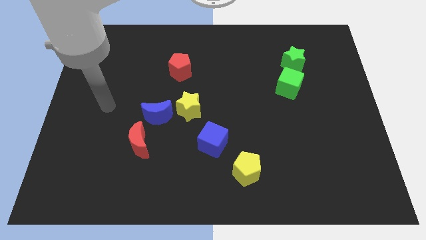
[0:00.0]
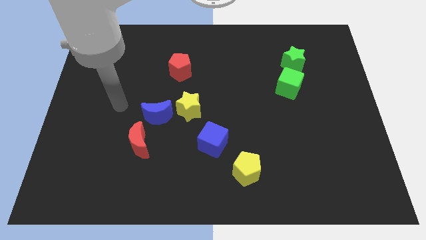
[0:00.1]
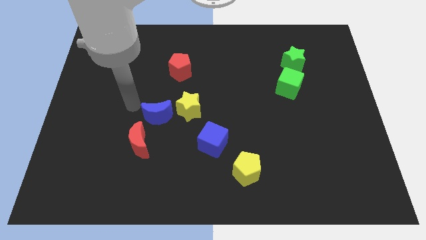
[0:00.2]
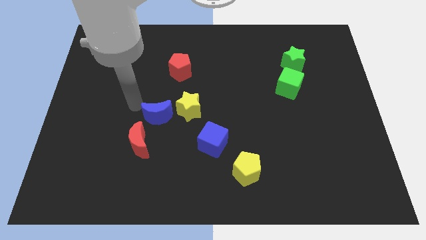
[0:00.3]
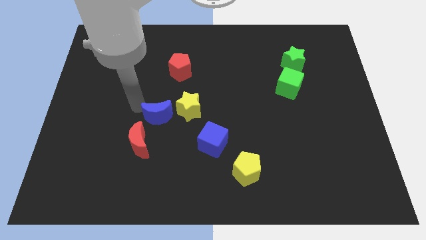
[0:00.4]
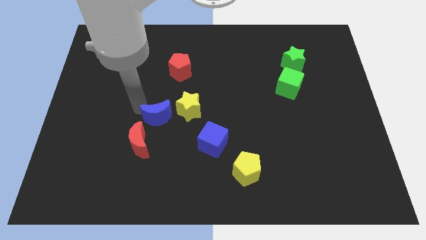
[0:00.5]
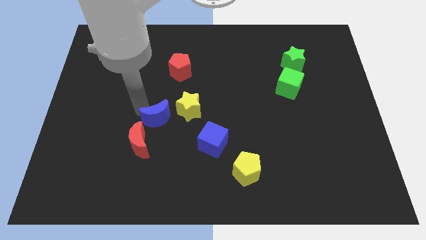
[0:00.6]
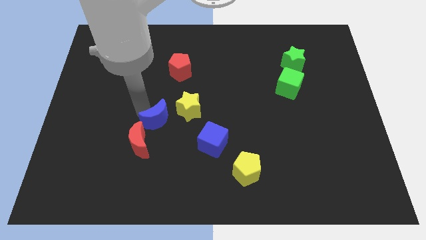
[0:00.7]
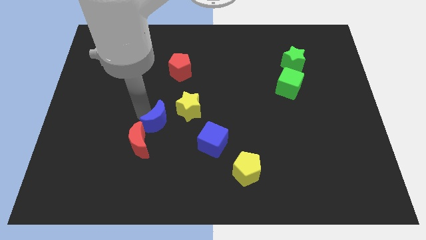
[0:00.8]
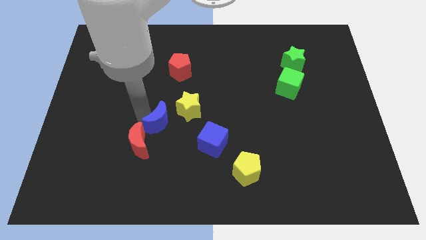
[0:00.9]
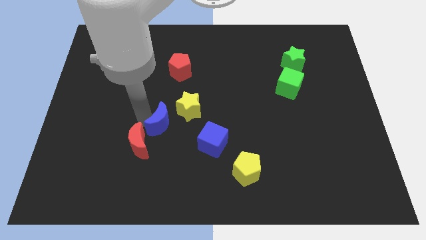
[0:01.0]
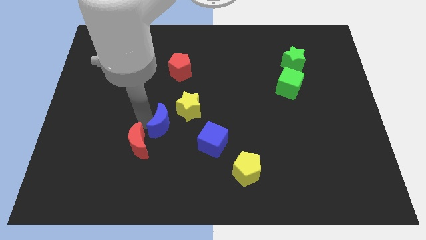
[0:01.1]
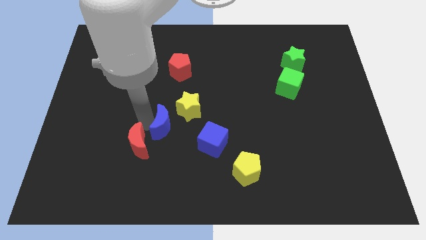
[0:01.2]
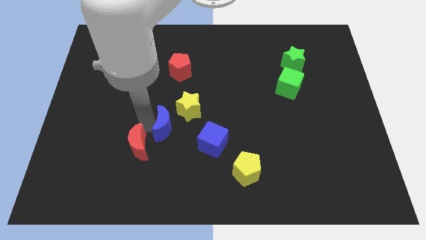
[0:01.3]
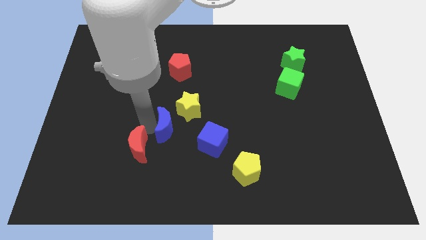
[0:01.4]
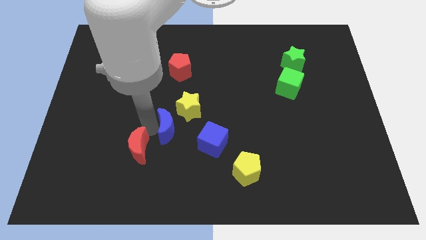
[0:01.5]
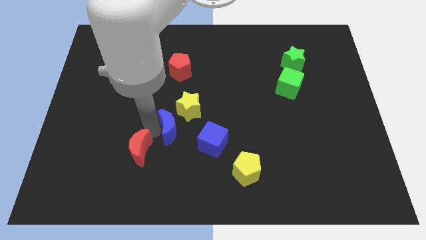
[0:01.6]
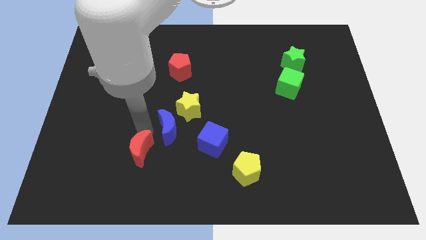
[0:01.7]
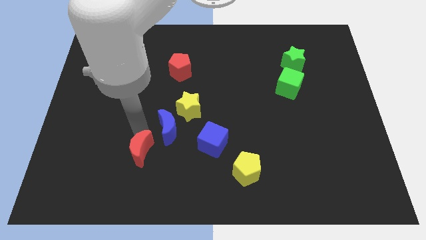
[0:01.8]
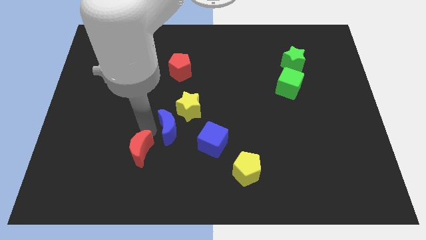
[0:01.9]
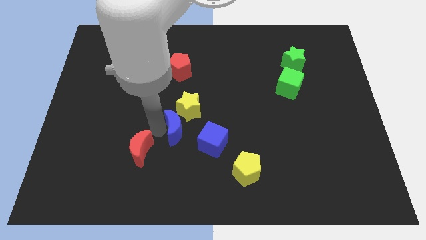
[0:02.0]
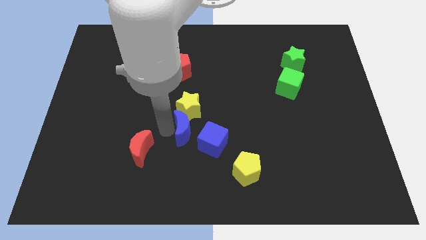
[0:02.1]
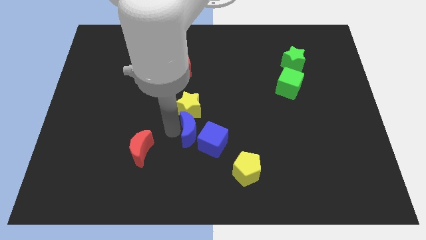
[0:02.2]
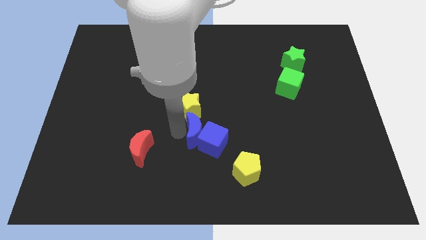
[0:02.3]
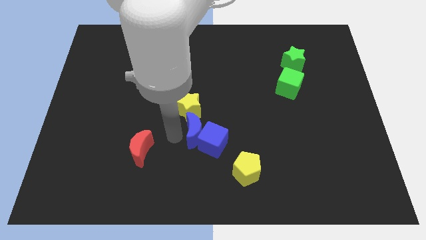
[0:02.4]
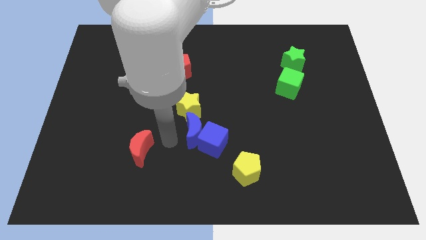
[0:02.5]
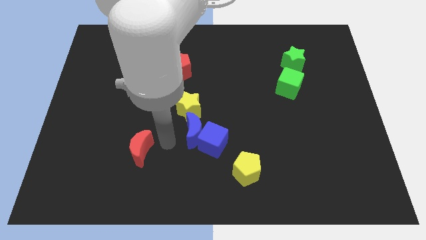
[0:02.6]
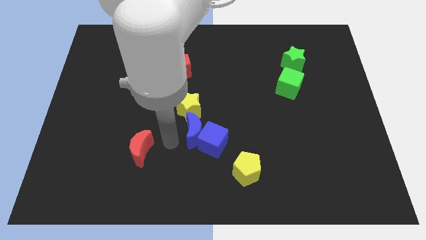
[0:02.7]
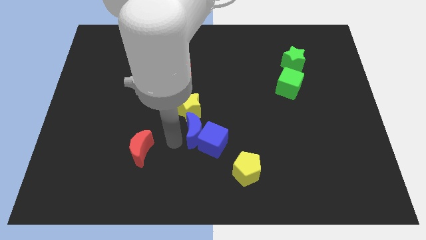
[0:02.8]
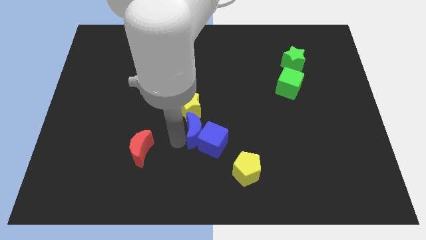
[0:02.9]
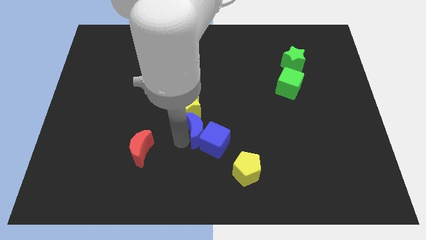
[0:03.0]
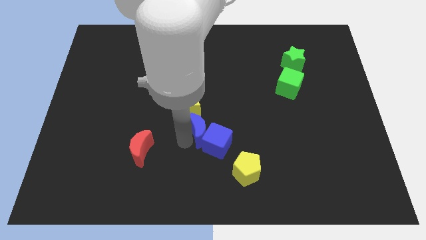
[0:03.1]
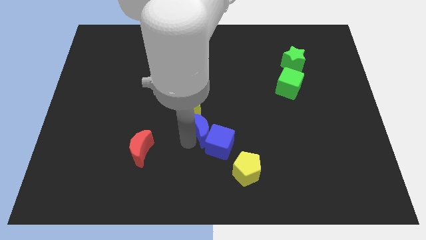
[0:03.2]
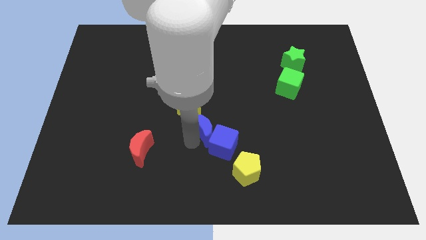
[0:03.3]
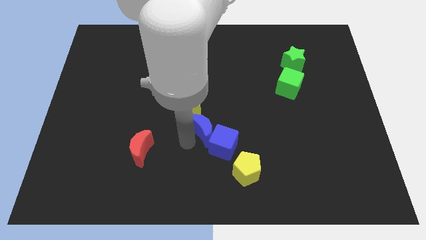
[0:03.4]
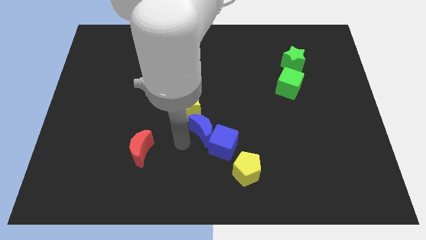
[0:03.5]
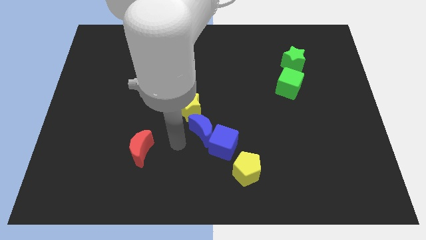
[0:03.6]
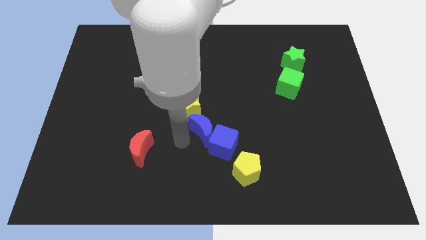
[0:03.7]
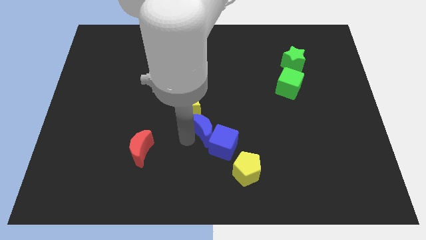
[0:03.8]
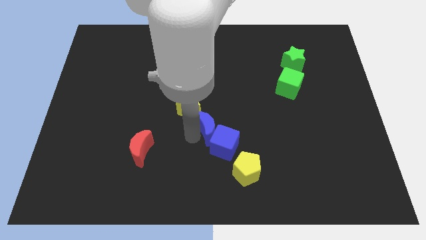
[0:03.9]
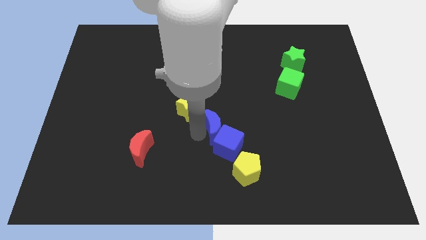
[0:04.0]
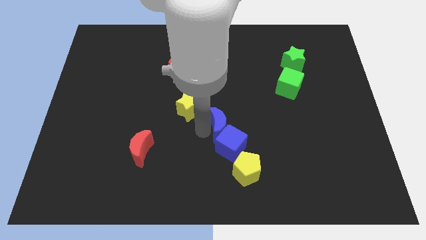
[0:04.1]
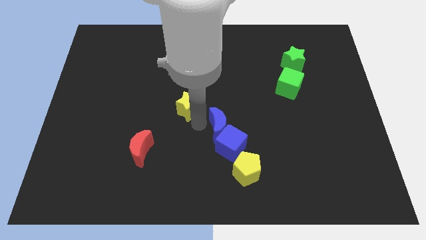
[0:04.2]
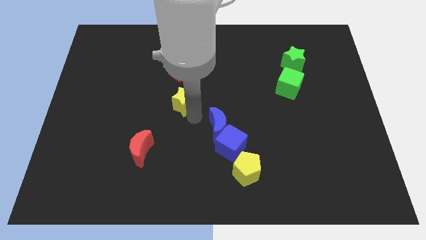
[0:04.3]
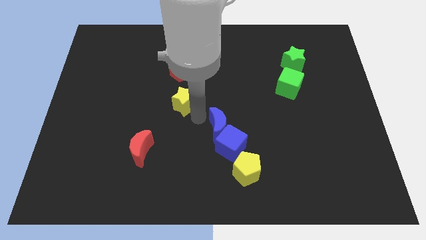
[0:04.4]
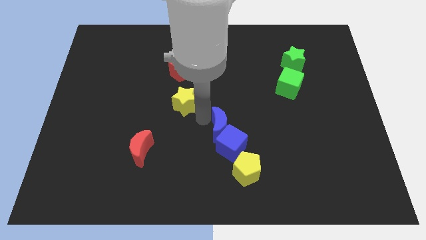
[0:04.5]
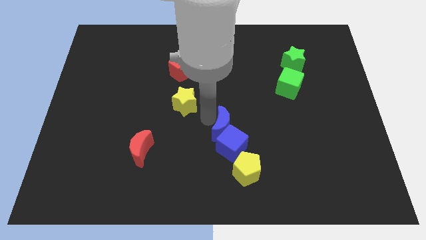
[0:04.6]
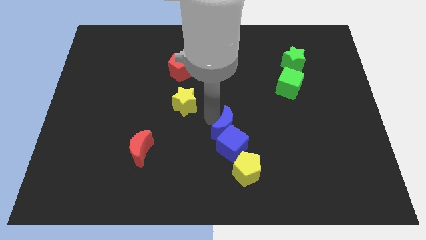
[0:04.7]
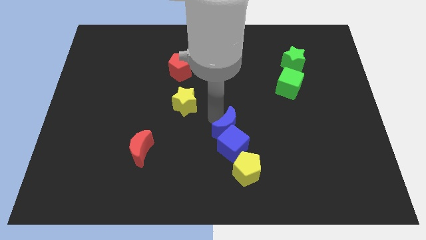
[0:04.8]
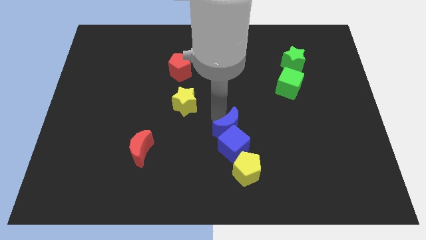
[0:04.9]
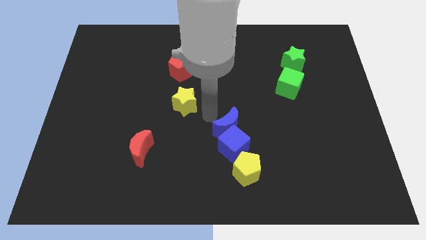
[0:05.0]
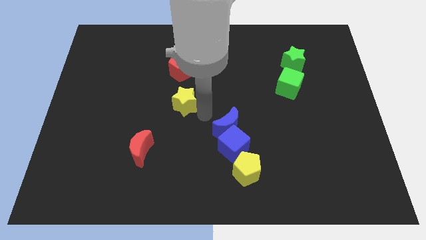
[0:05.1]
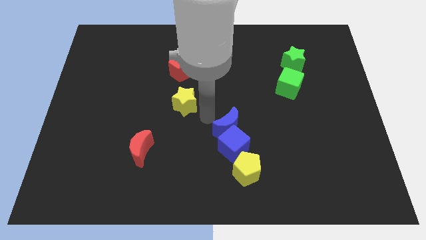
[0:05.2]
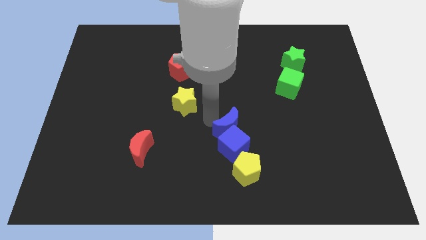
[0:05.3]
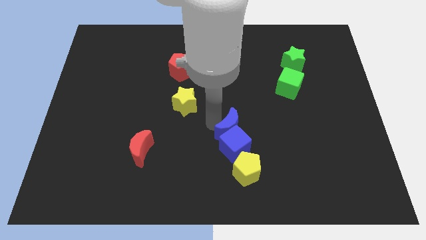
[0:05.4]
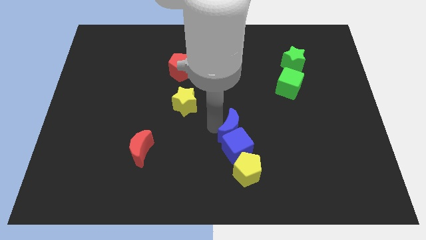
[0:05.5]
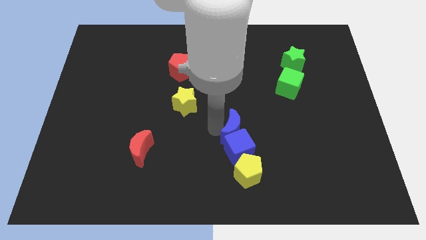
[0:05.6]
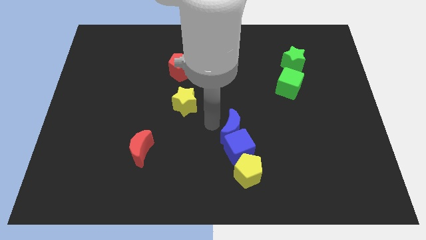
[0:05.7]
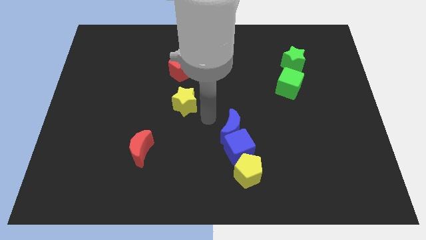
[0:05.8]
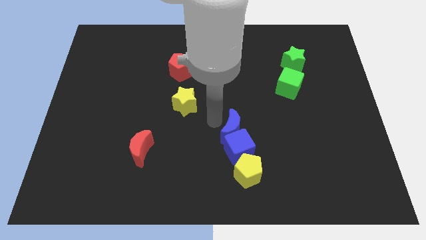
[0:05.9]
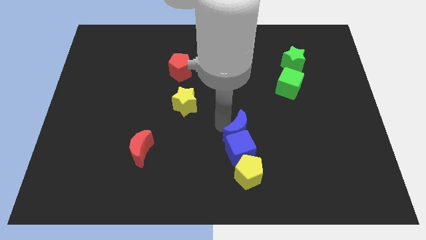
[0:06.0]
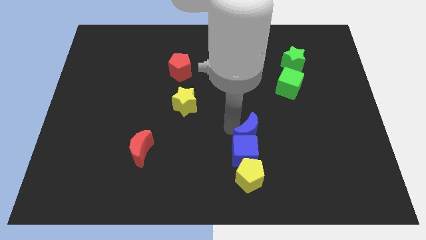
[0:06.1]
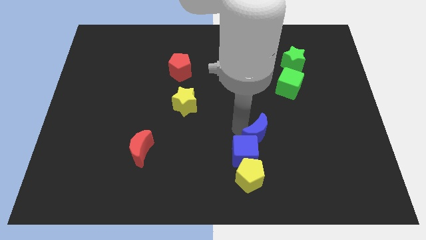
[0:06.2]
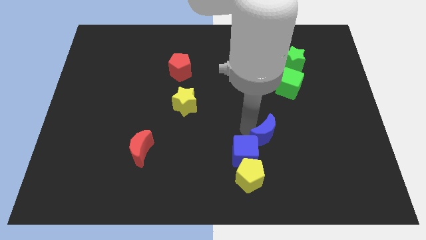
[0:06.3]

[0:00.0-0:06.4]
slide the blue moon diagonally up and to the right of the yellow pentagon

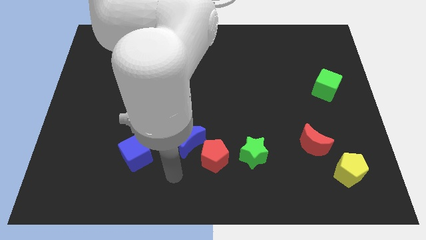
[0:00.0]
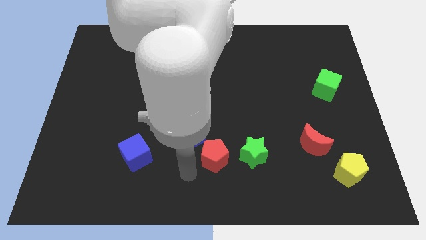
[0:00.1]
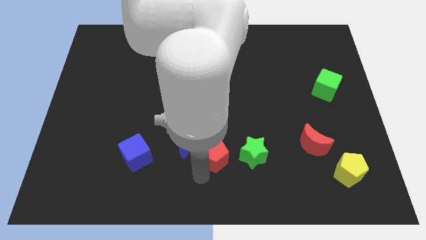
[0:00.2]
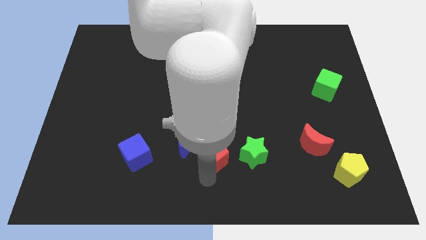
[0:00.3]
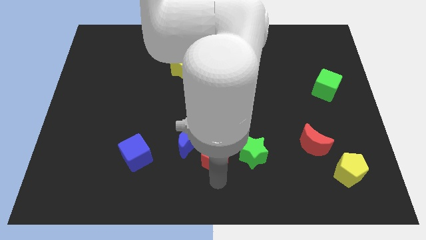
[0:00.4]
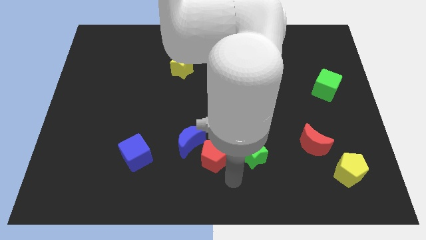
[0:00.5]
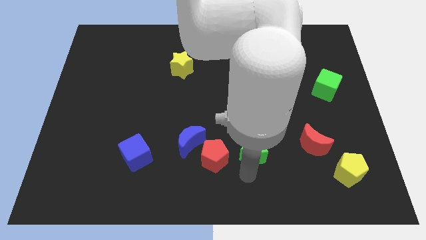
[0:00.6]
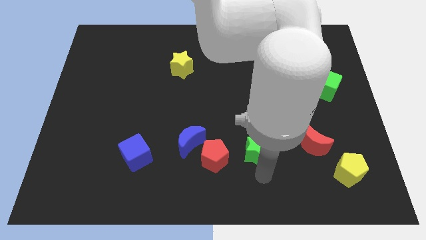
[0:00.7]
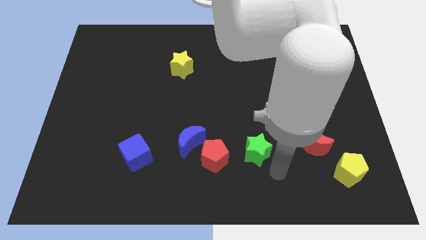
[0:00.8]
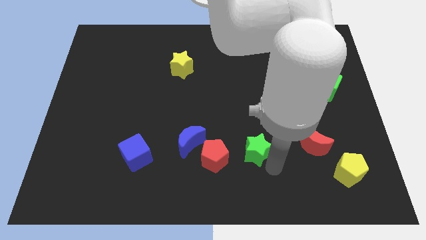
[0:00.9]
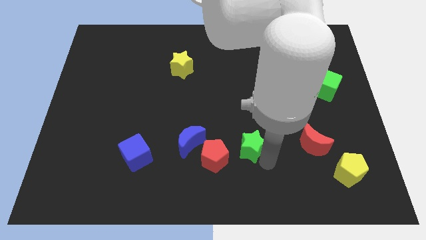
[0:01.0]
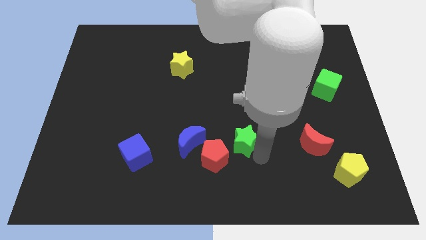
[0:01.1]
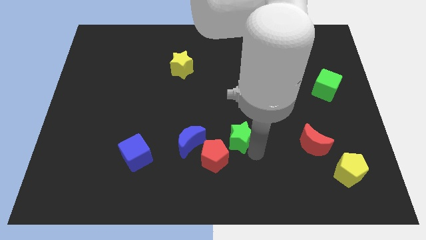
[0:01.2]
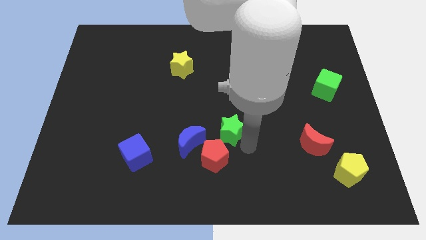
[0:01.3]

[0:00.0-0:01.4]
push the green star above the red pentagon
